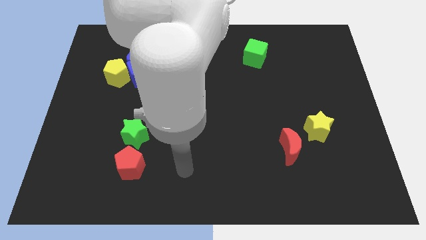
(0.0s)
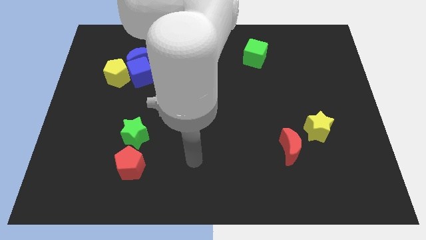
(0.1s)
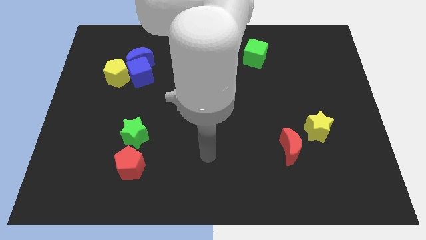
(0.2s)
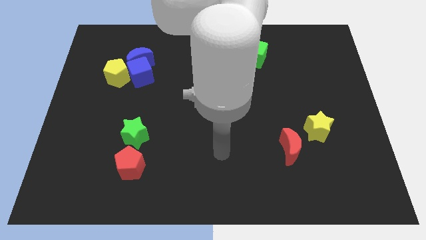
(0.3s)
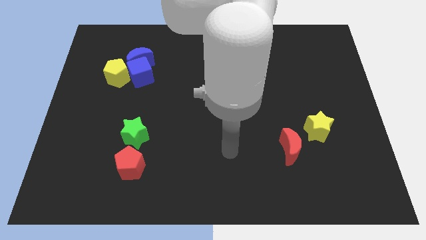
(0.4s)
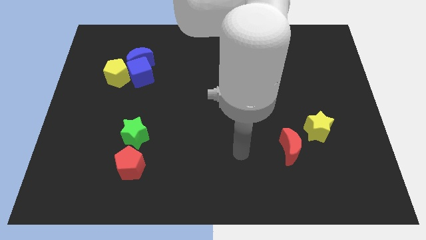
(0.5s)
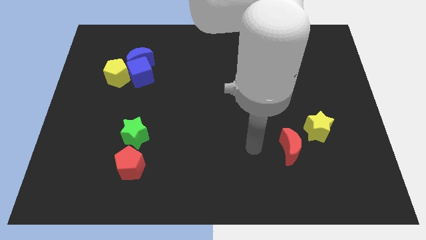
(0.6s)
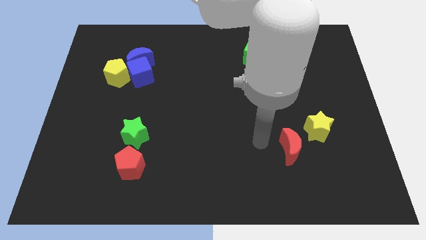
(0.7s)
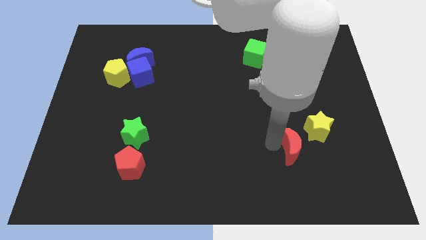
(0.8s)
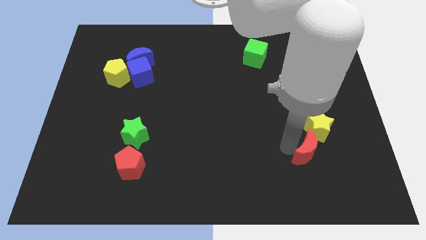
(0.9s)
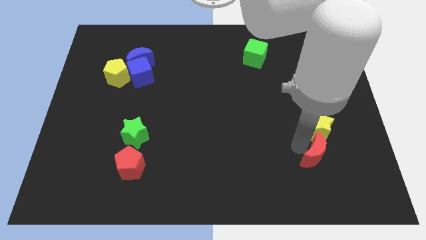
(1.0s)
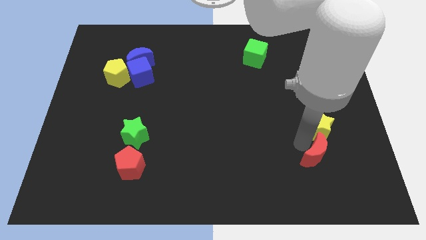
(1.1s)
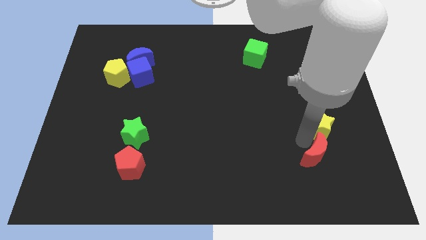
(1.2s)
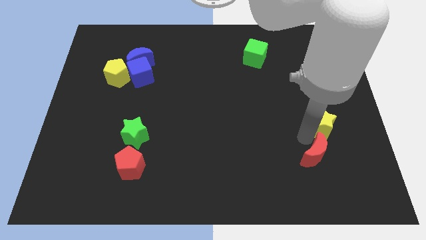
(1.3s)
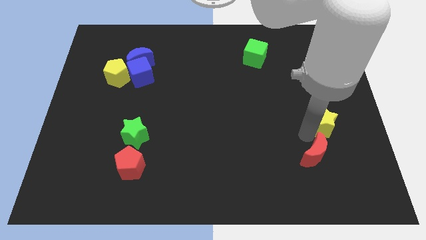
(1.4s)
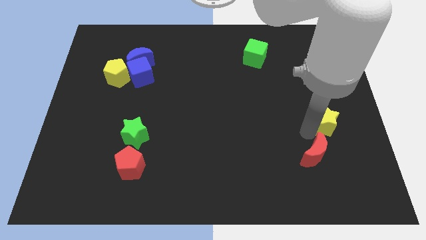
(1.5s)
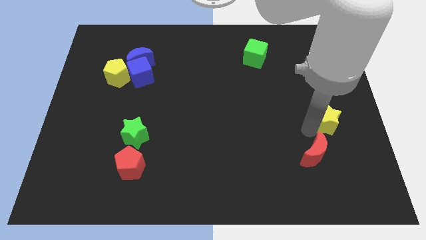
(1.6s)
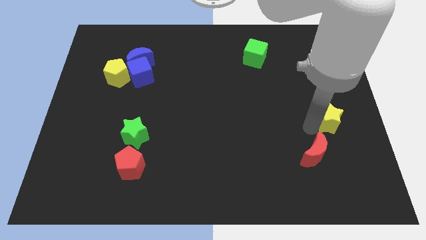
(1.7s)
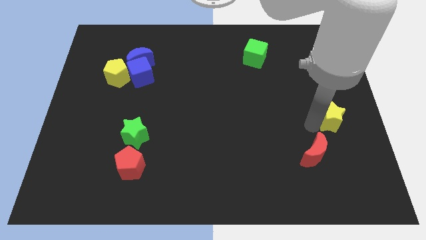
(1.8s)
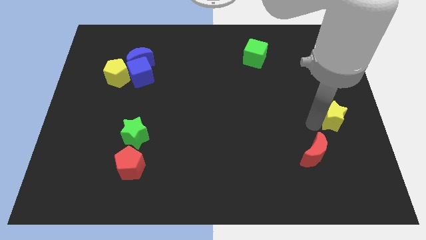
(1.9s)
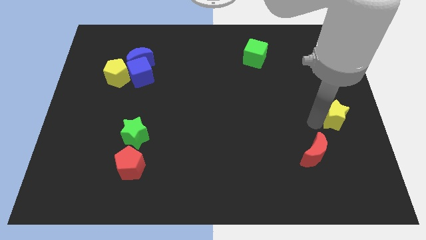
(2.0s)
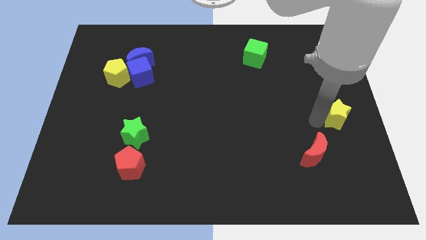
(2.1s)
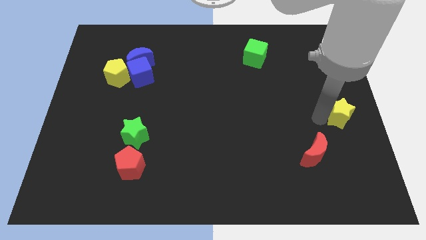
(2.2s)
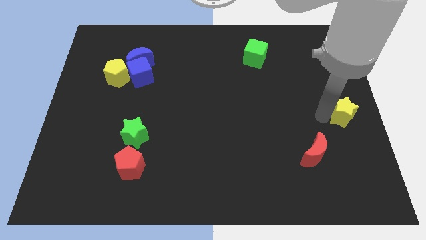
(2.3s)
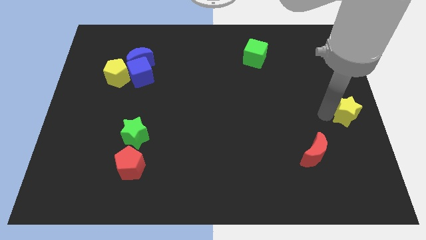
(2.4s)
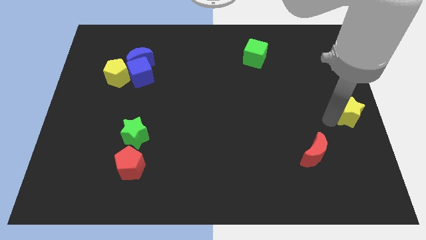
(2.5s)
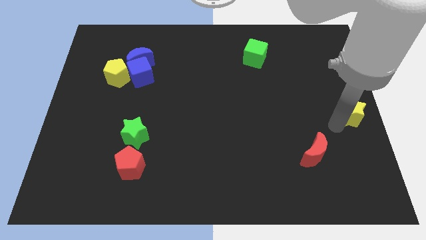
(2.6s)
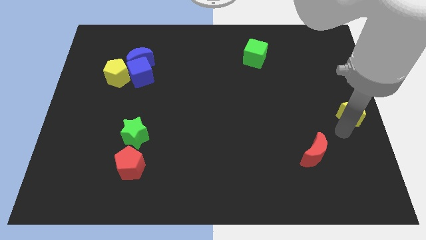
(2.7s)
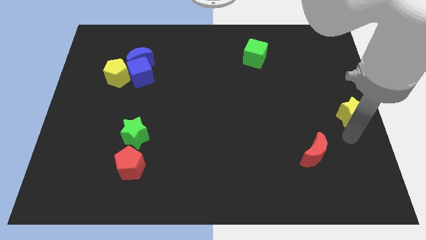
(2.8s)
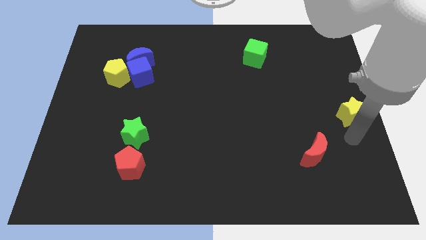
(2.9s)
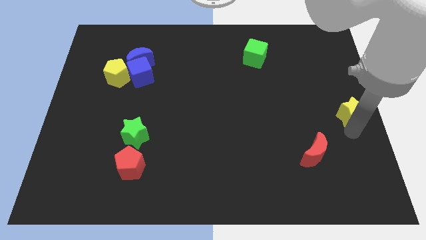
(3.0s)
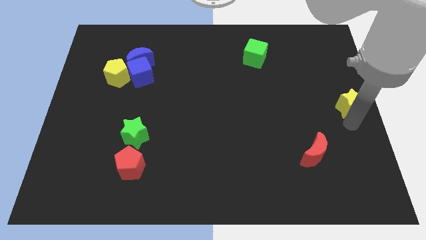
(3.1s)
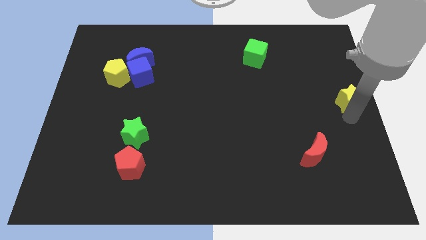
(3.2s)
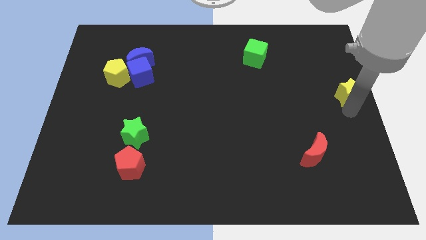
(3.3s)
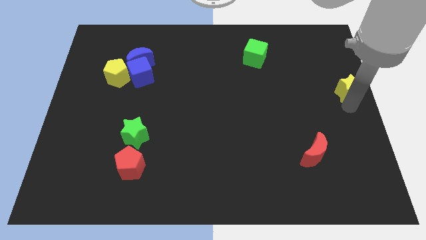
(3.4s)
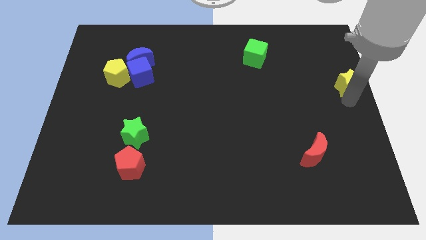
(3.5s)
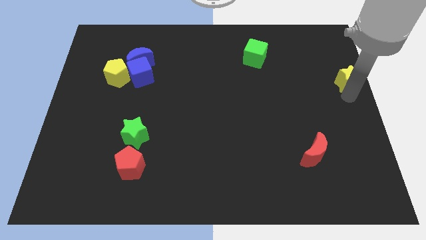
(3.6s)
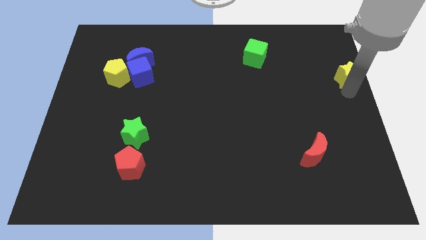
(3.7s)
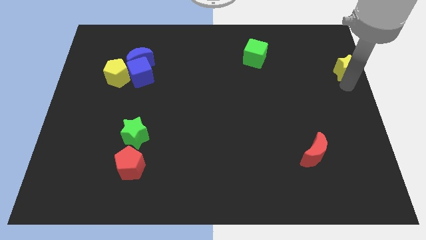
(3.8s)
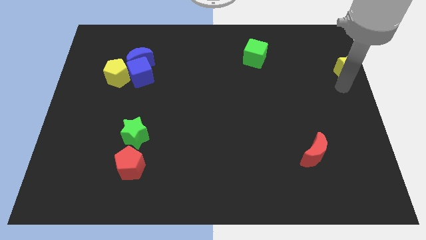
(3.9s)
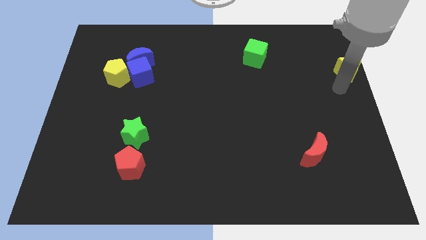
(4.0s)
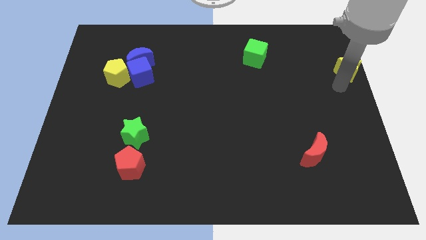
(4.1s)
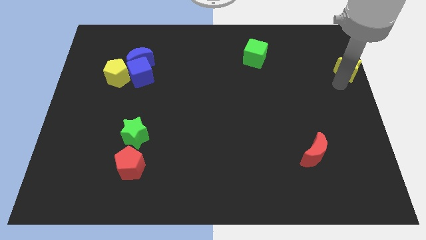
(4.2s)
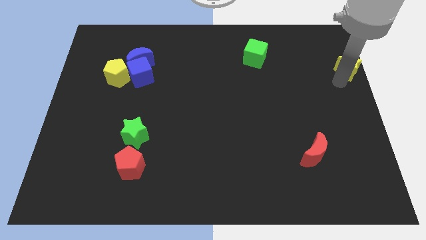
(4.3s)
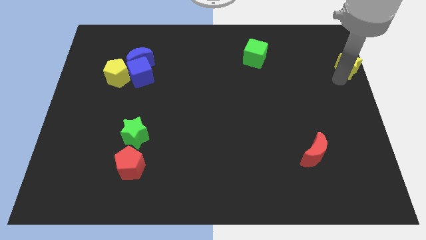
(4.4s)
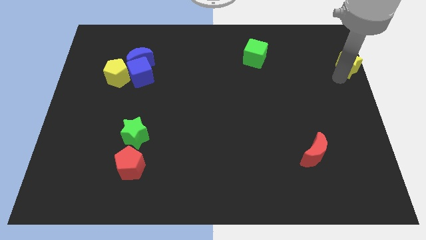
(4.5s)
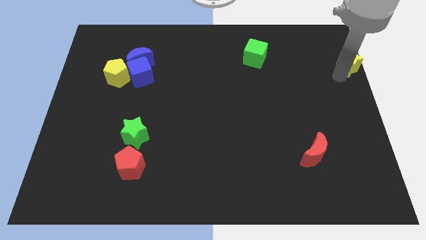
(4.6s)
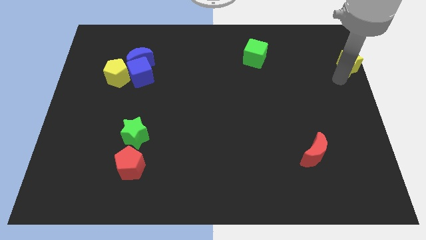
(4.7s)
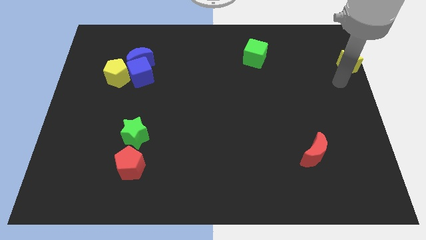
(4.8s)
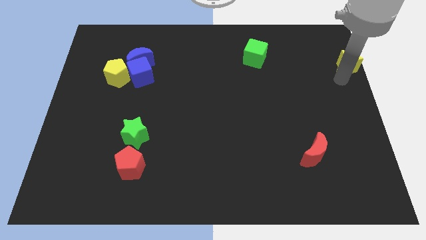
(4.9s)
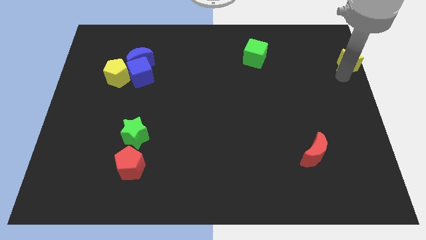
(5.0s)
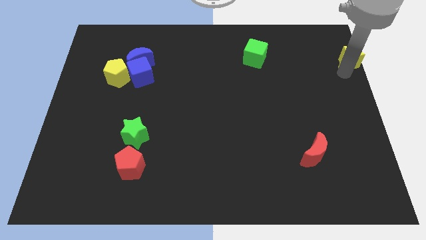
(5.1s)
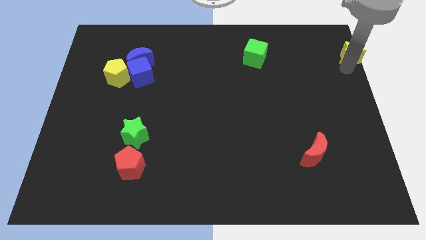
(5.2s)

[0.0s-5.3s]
move the yellow star to the top right corner

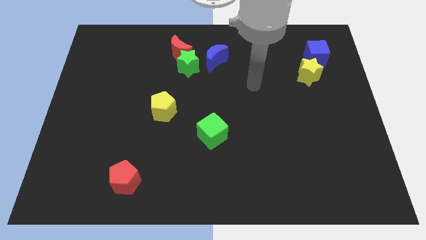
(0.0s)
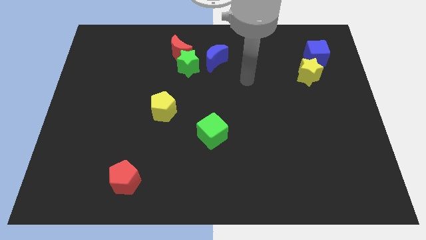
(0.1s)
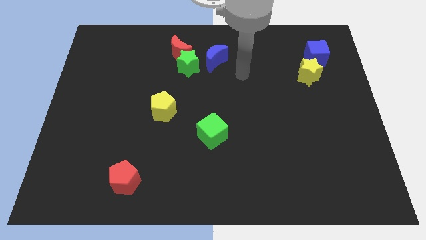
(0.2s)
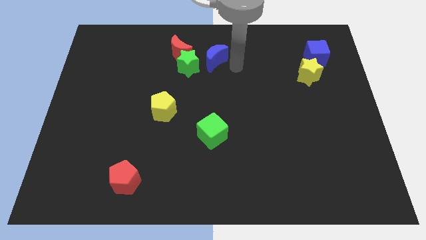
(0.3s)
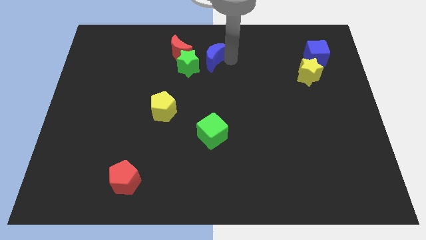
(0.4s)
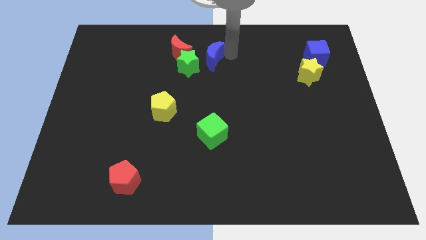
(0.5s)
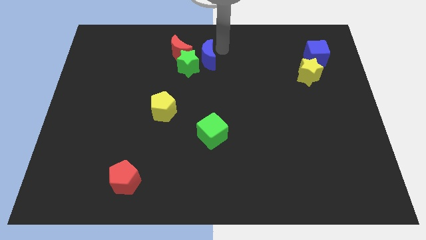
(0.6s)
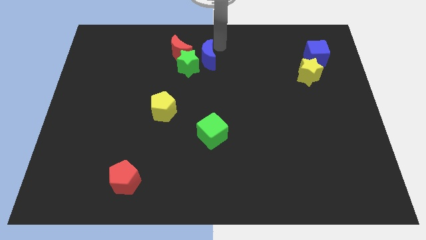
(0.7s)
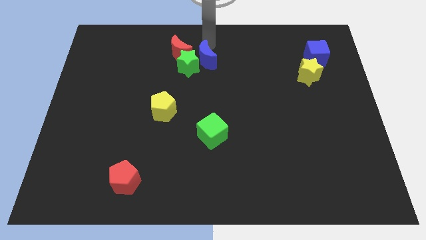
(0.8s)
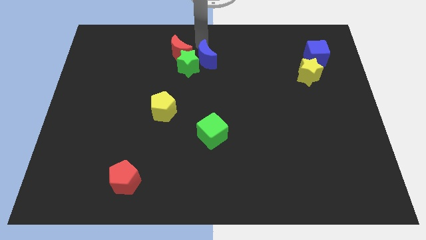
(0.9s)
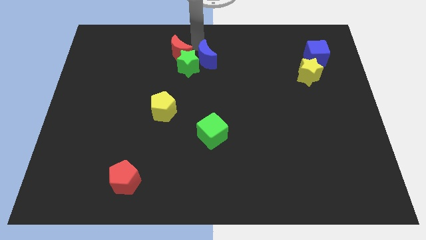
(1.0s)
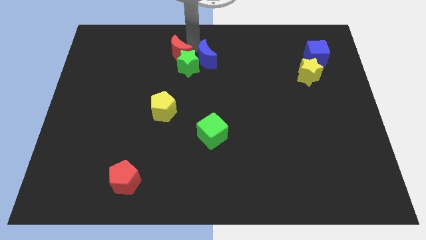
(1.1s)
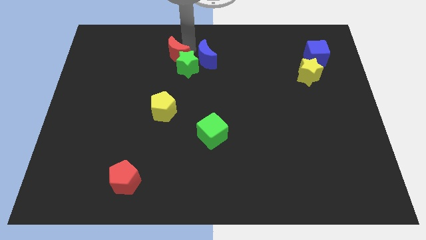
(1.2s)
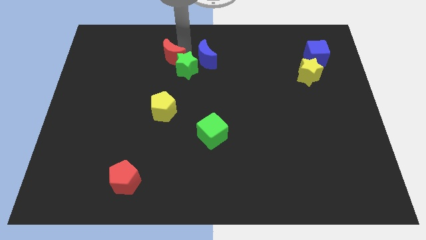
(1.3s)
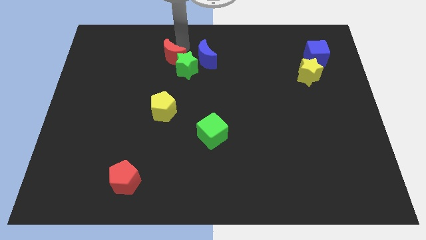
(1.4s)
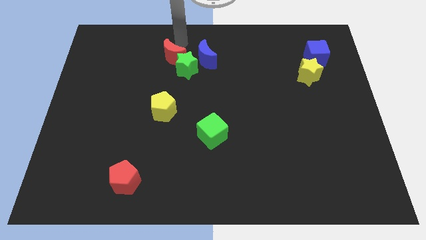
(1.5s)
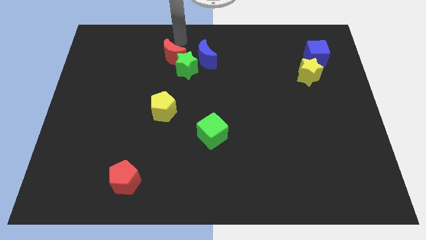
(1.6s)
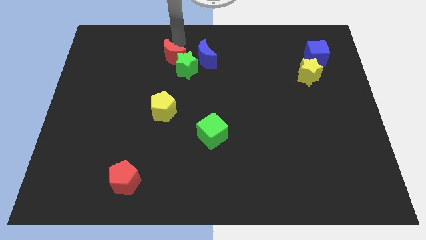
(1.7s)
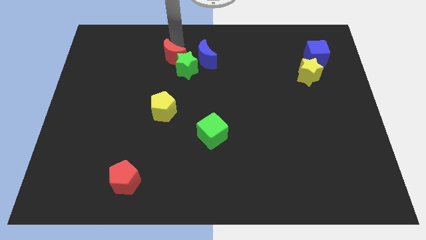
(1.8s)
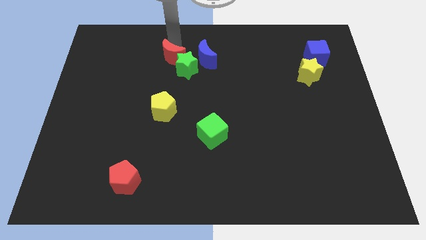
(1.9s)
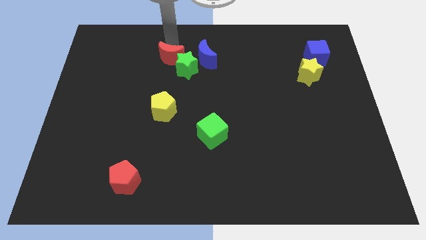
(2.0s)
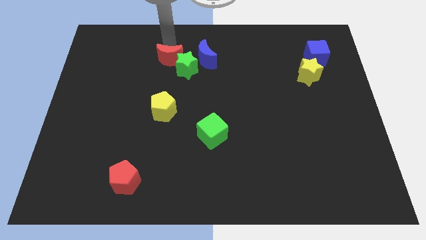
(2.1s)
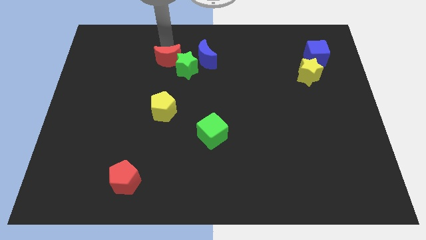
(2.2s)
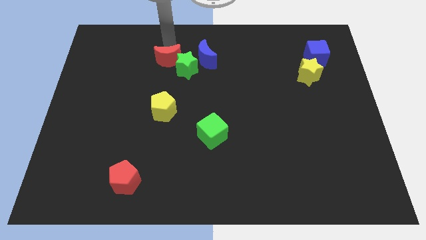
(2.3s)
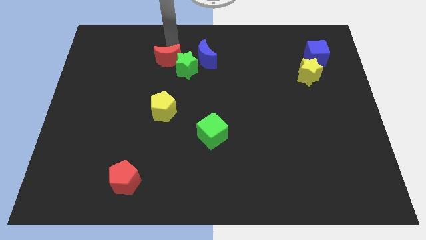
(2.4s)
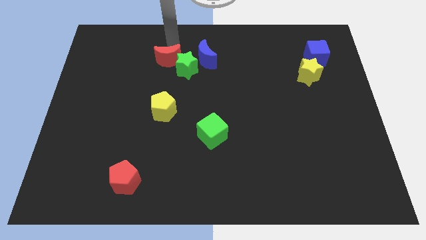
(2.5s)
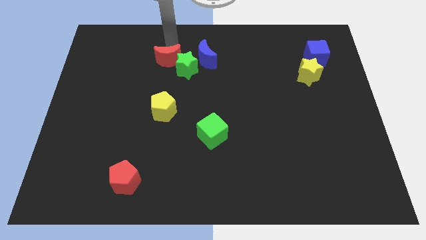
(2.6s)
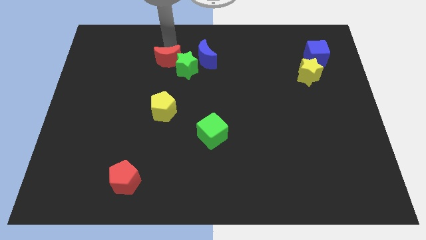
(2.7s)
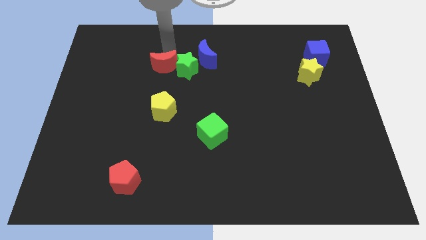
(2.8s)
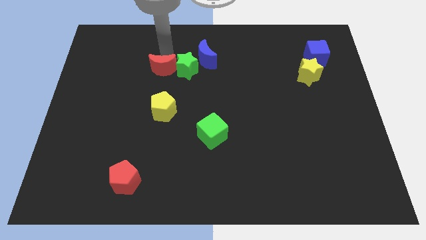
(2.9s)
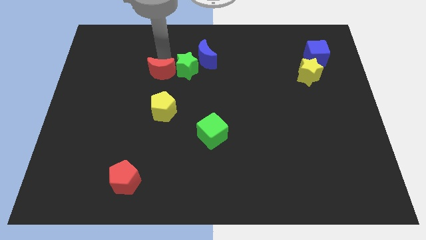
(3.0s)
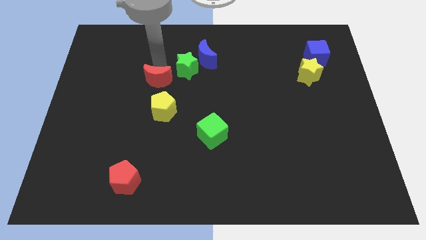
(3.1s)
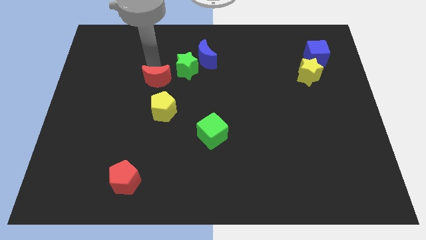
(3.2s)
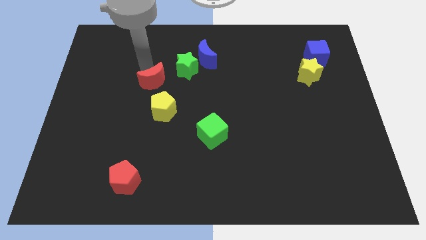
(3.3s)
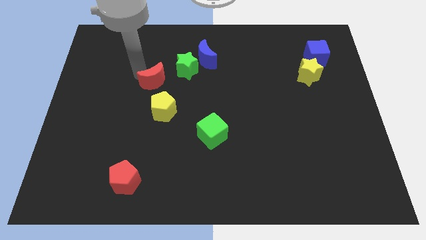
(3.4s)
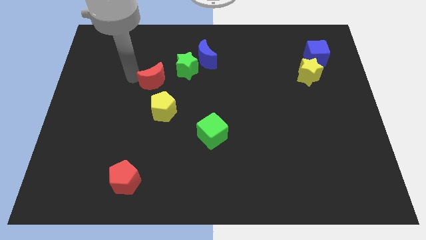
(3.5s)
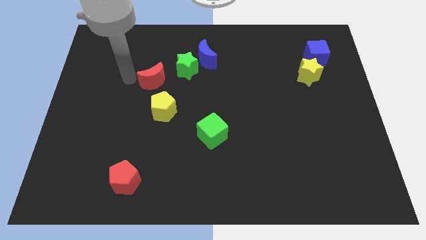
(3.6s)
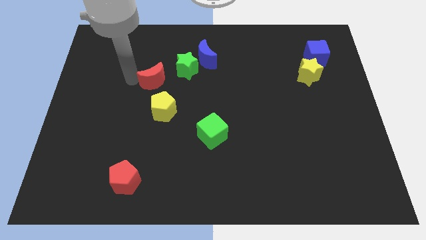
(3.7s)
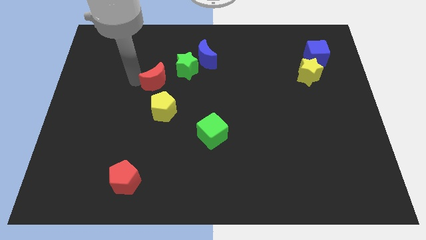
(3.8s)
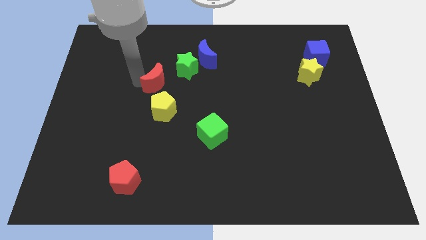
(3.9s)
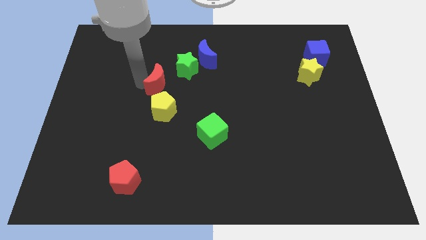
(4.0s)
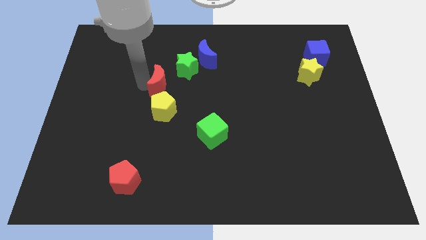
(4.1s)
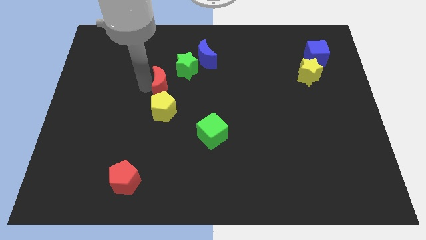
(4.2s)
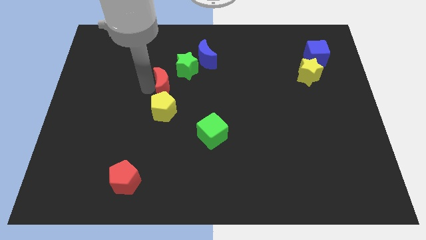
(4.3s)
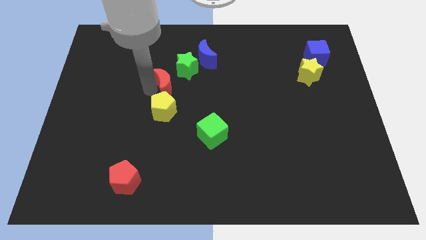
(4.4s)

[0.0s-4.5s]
move the red moon to the middle of the board
